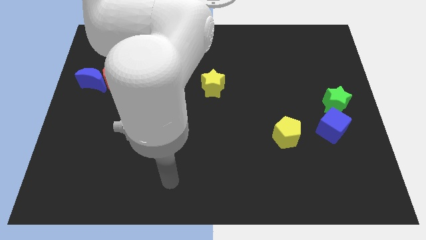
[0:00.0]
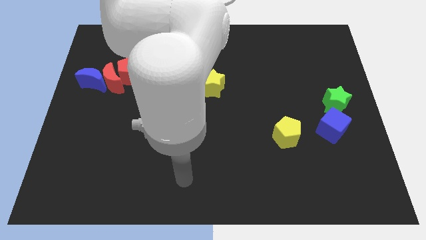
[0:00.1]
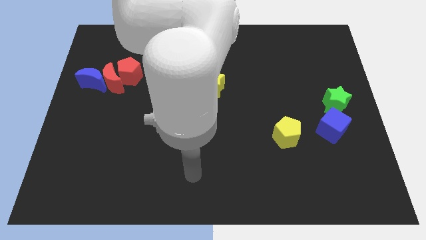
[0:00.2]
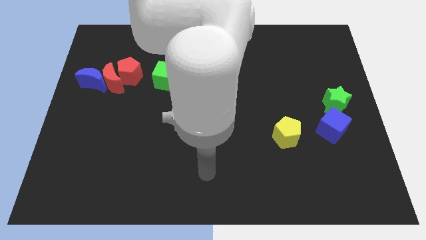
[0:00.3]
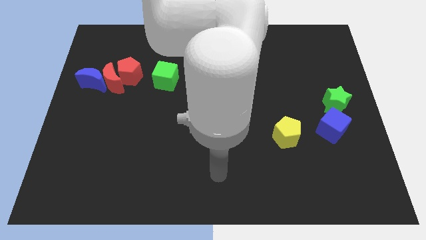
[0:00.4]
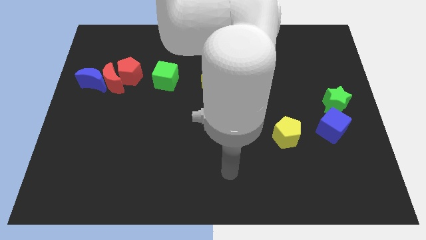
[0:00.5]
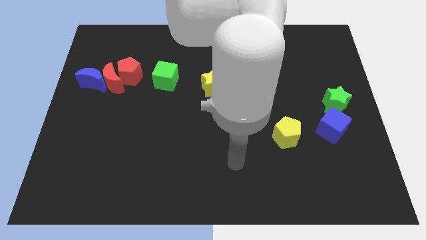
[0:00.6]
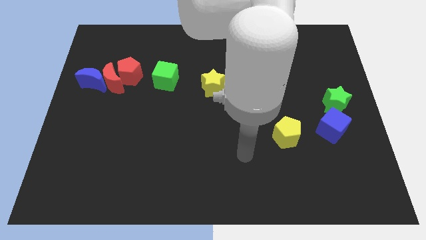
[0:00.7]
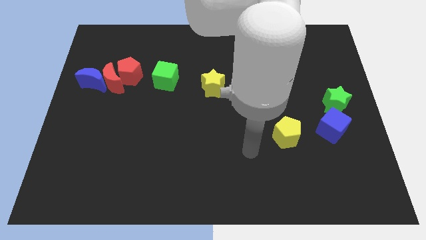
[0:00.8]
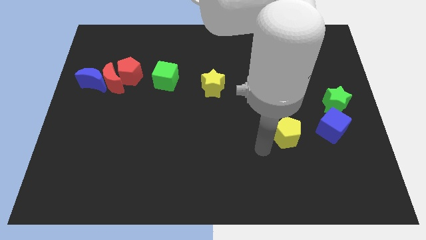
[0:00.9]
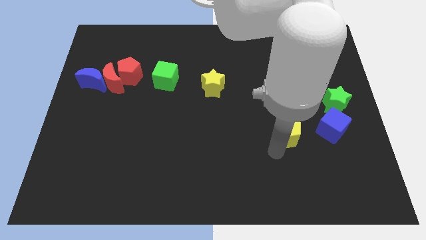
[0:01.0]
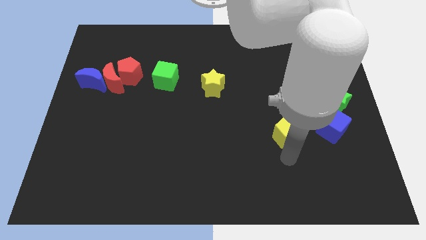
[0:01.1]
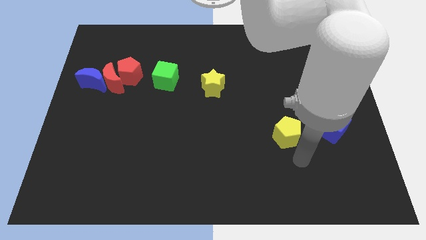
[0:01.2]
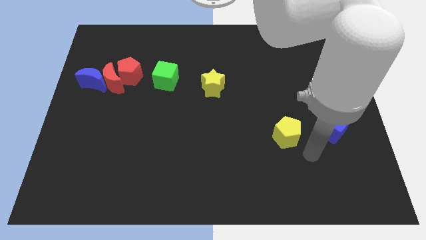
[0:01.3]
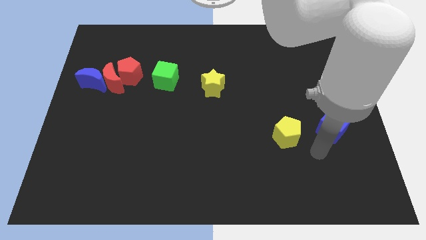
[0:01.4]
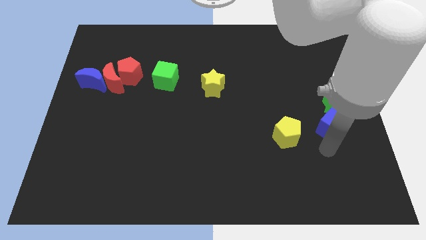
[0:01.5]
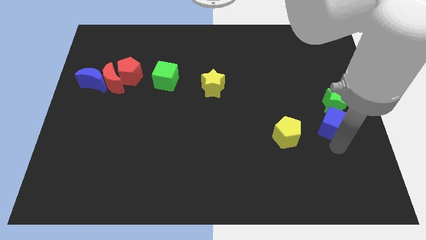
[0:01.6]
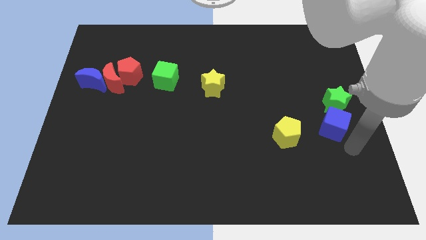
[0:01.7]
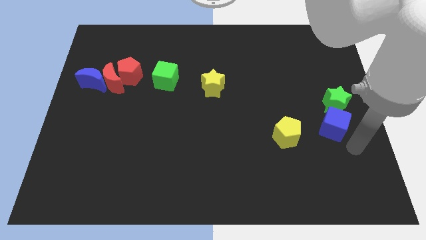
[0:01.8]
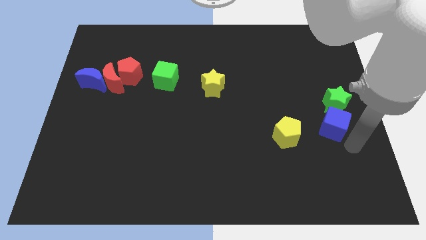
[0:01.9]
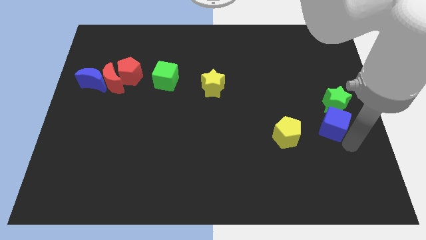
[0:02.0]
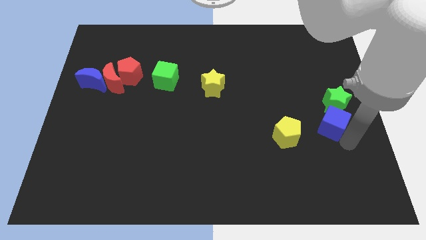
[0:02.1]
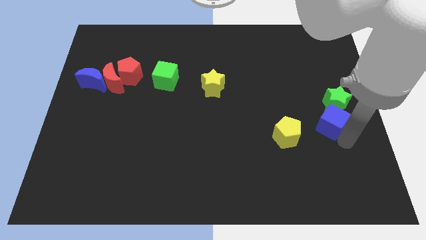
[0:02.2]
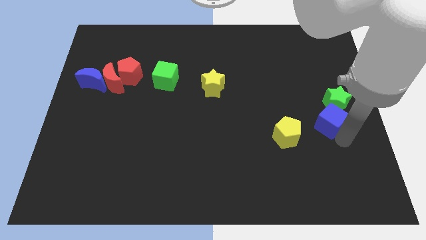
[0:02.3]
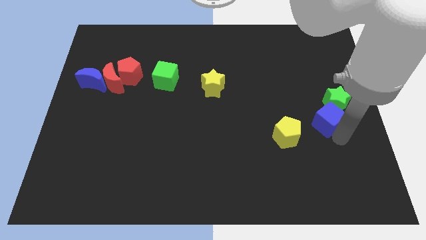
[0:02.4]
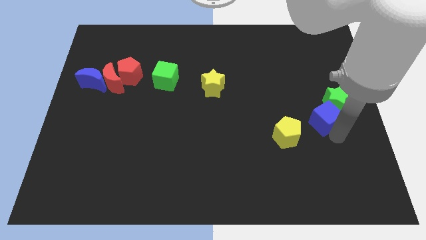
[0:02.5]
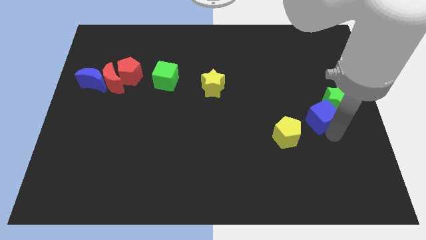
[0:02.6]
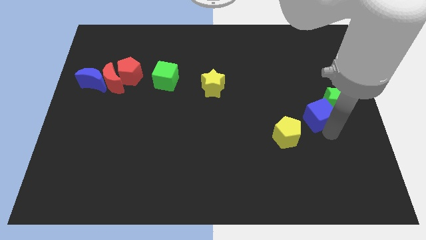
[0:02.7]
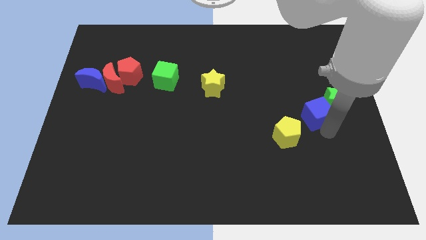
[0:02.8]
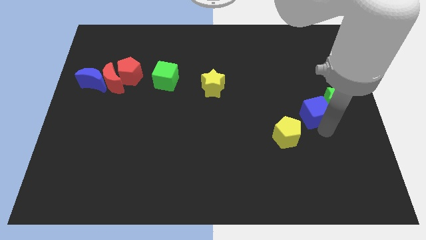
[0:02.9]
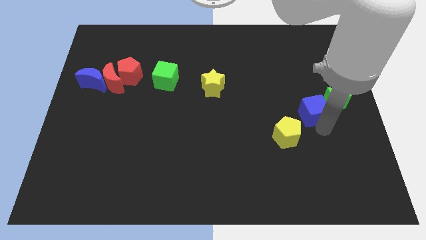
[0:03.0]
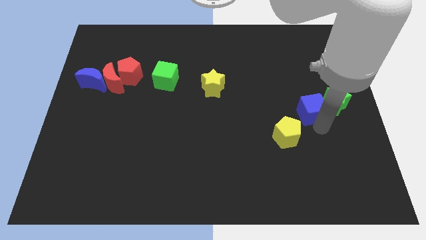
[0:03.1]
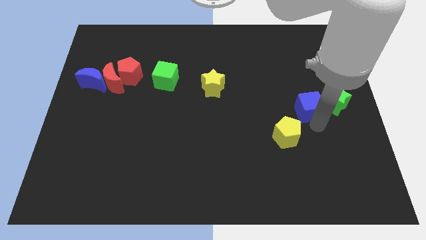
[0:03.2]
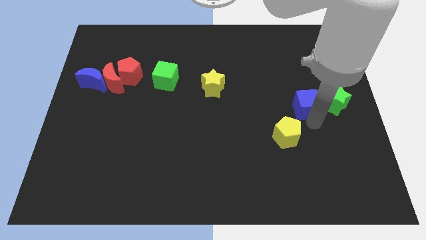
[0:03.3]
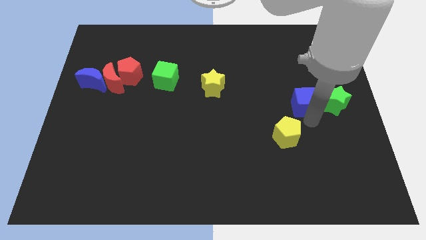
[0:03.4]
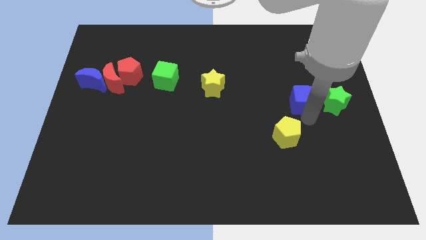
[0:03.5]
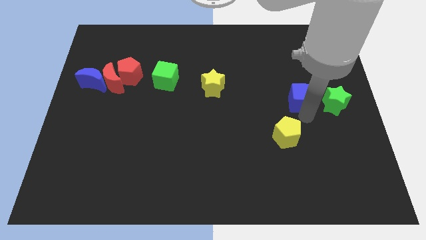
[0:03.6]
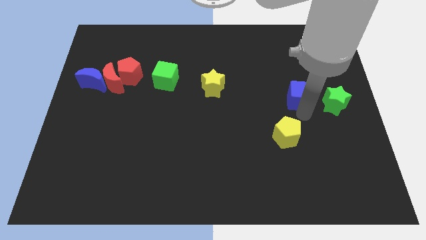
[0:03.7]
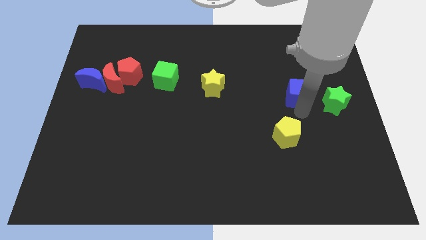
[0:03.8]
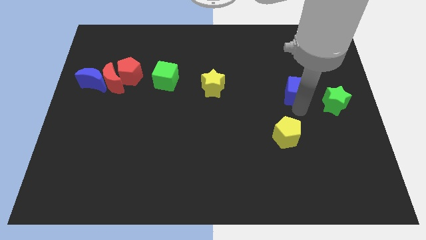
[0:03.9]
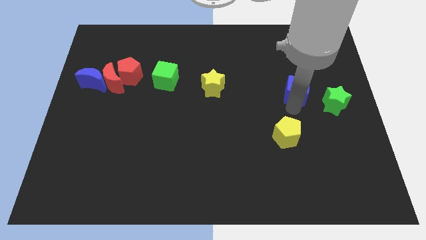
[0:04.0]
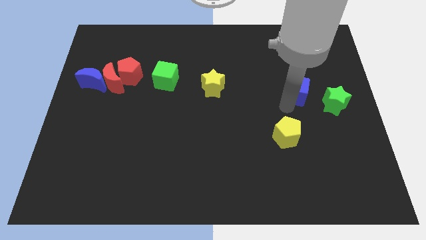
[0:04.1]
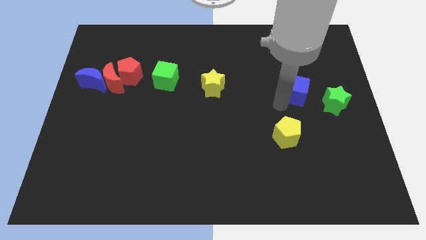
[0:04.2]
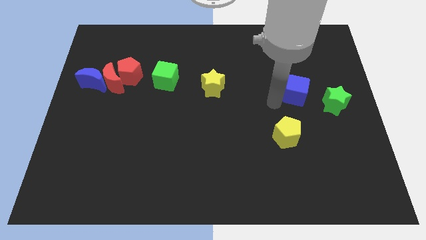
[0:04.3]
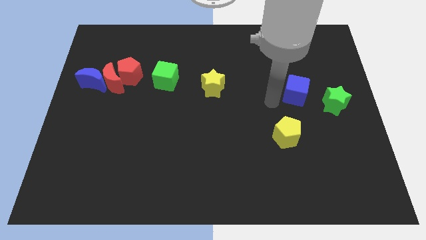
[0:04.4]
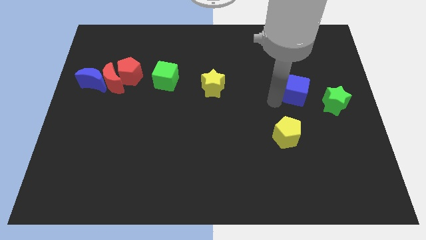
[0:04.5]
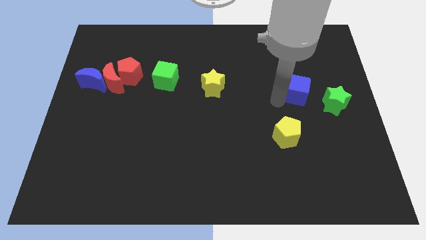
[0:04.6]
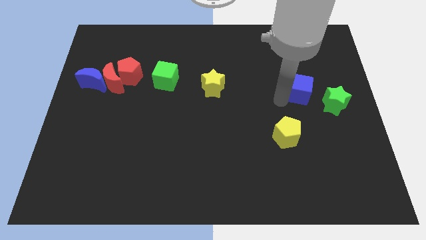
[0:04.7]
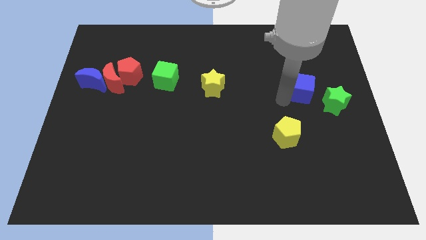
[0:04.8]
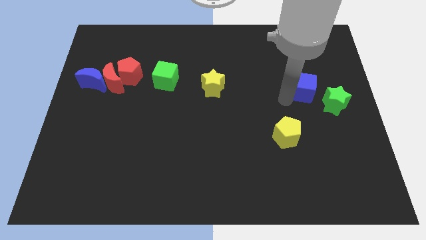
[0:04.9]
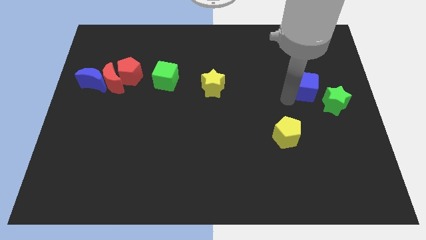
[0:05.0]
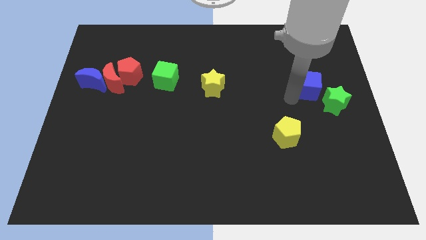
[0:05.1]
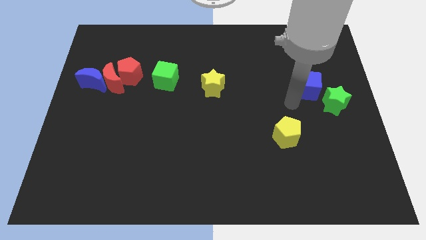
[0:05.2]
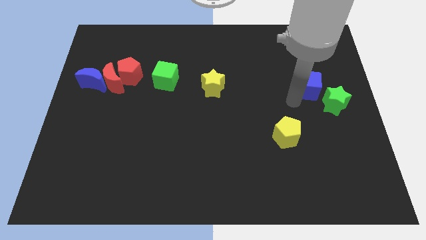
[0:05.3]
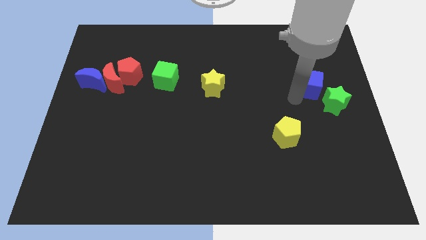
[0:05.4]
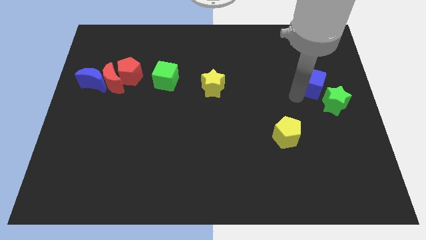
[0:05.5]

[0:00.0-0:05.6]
put the blue cube above the green star

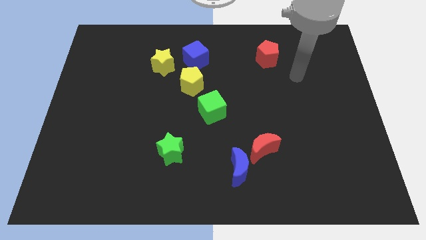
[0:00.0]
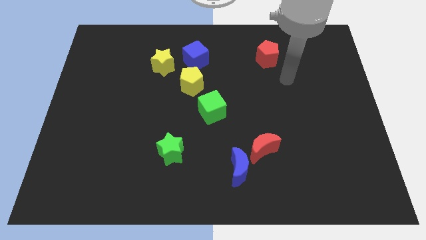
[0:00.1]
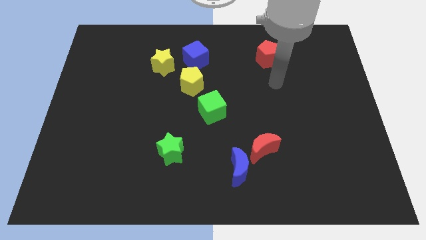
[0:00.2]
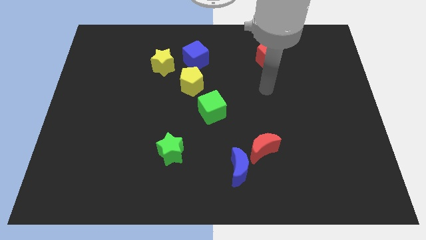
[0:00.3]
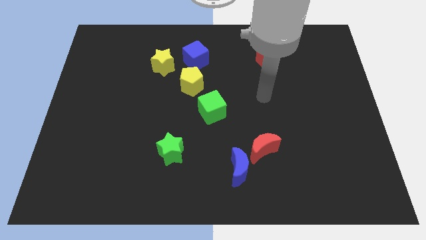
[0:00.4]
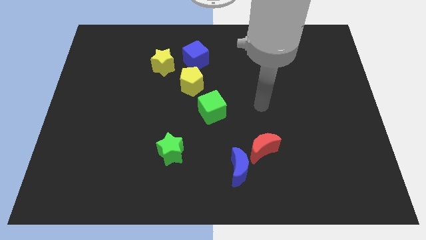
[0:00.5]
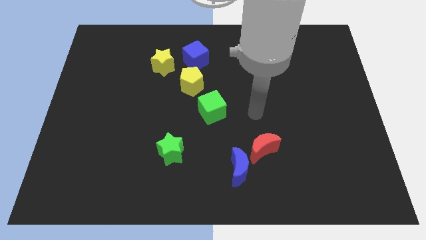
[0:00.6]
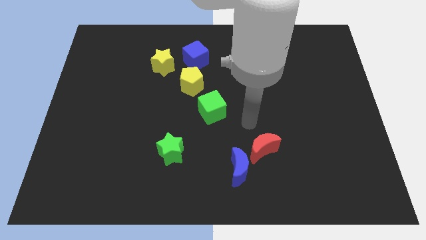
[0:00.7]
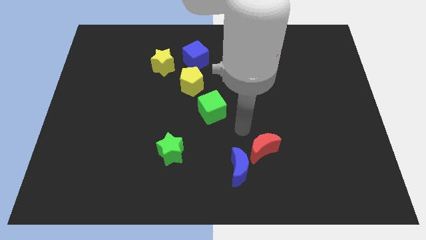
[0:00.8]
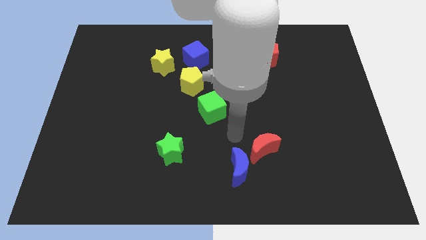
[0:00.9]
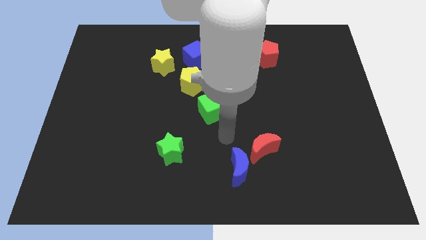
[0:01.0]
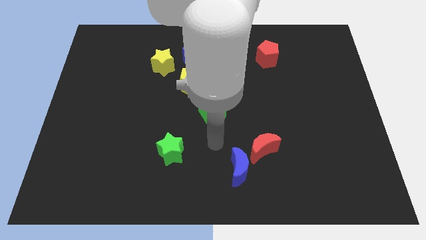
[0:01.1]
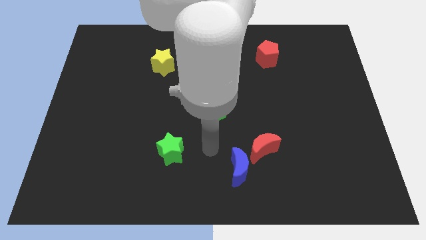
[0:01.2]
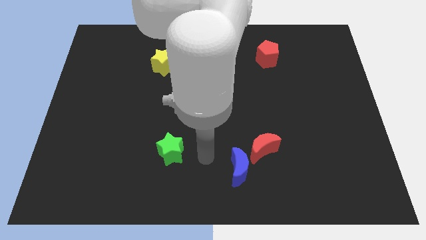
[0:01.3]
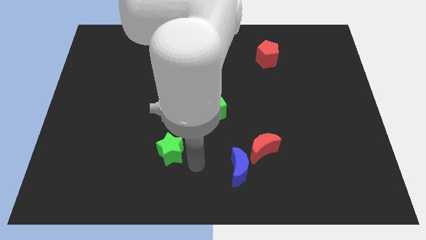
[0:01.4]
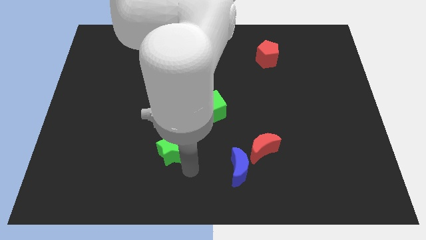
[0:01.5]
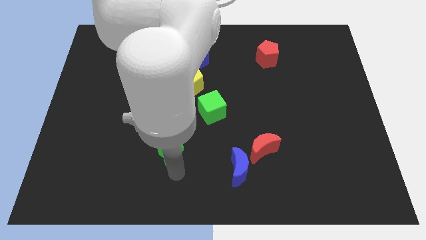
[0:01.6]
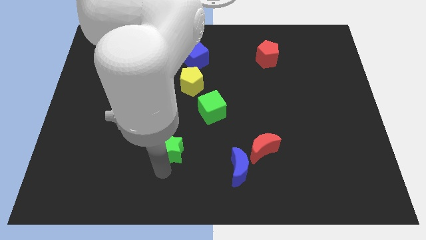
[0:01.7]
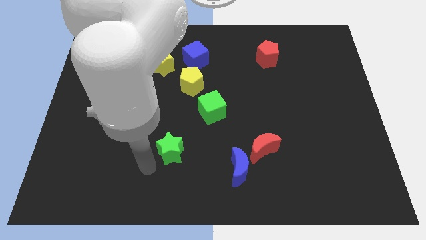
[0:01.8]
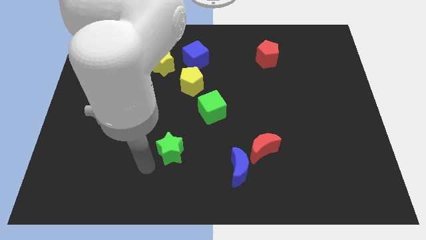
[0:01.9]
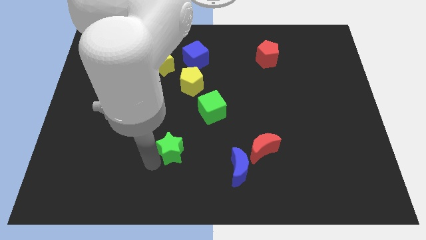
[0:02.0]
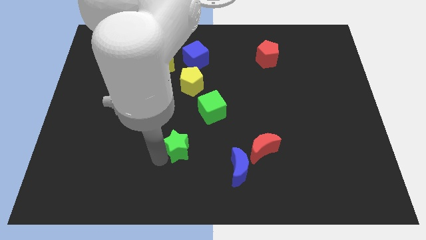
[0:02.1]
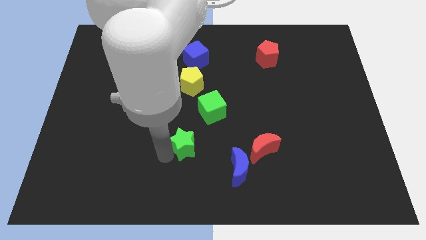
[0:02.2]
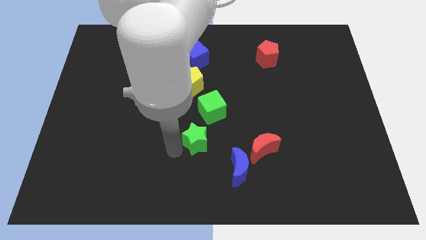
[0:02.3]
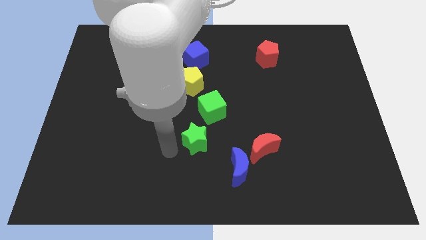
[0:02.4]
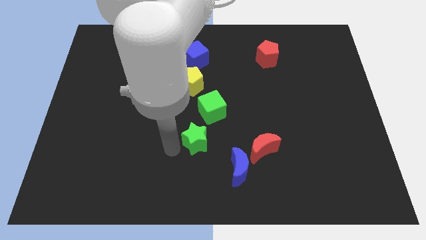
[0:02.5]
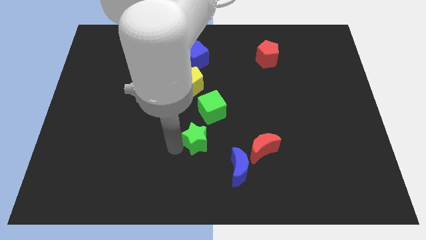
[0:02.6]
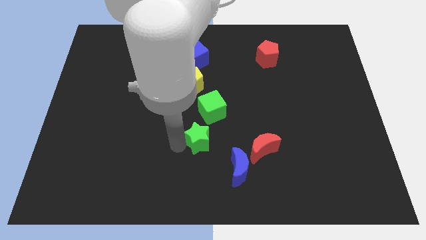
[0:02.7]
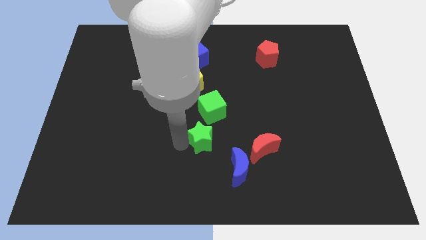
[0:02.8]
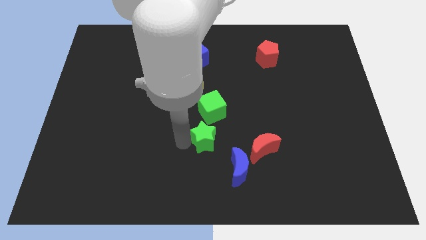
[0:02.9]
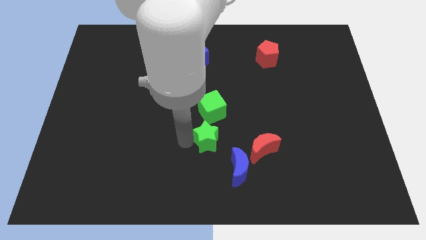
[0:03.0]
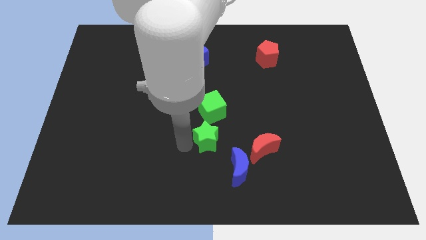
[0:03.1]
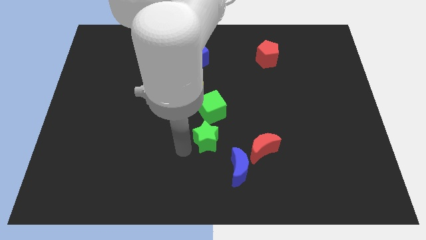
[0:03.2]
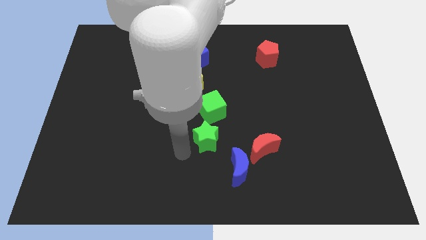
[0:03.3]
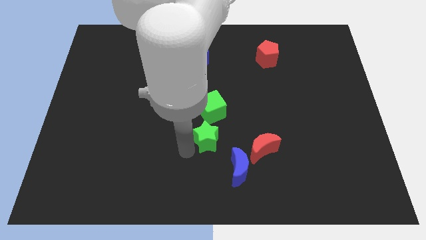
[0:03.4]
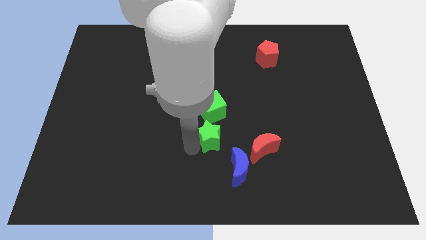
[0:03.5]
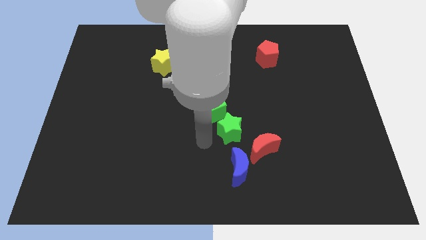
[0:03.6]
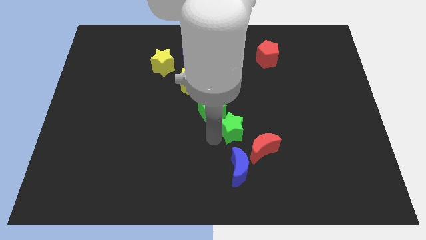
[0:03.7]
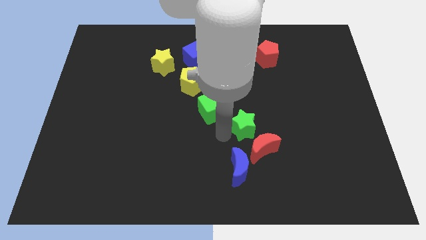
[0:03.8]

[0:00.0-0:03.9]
slide the green star above the red moon
